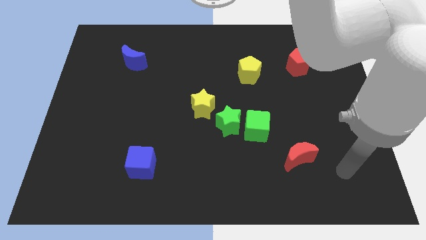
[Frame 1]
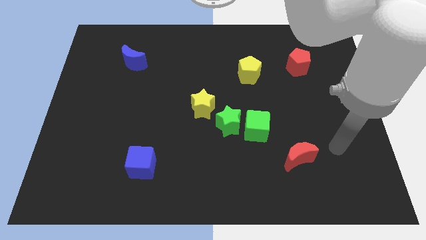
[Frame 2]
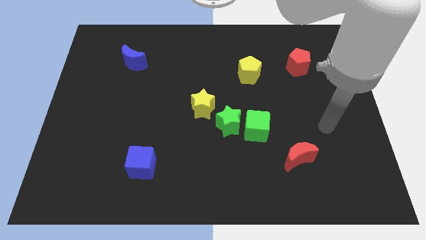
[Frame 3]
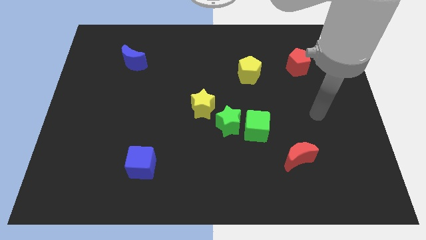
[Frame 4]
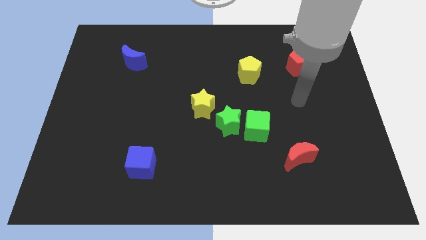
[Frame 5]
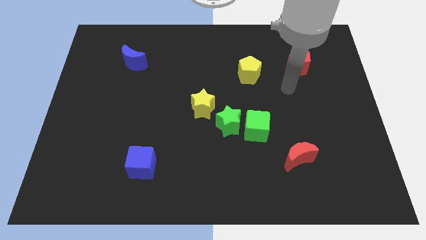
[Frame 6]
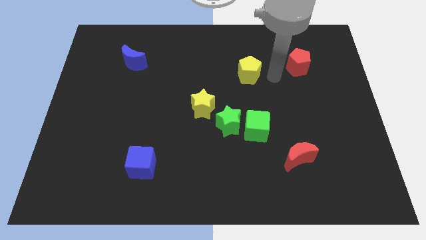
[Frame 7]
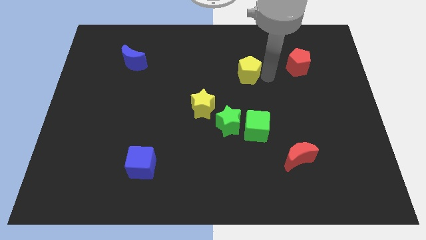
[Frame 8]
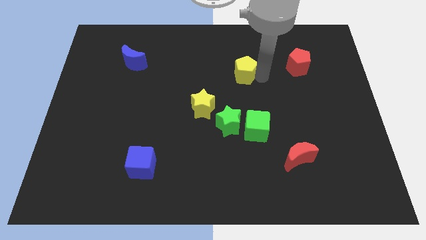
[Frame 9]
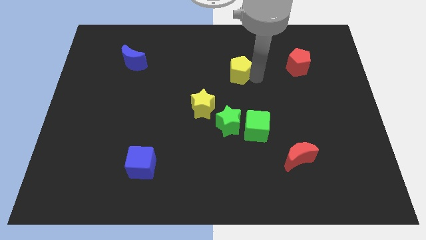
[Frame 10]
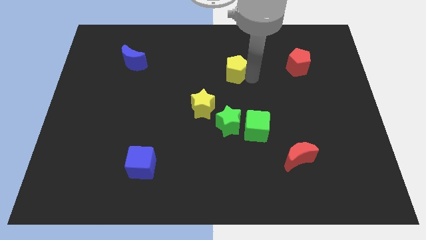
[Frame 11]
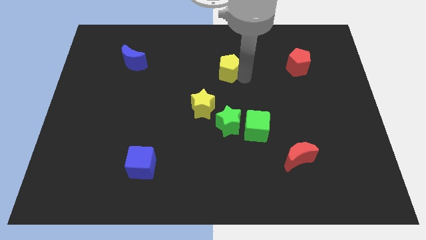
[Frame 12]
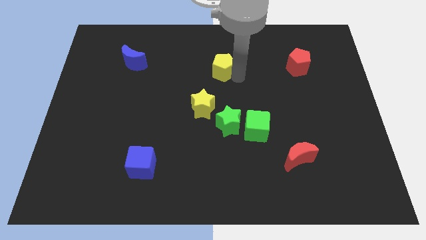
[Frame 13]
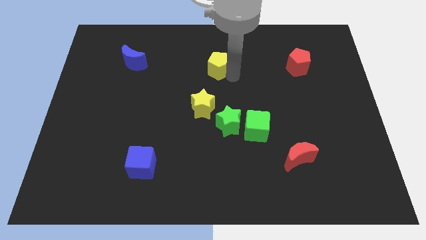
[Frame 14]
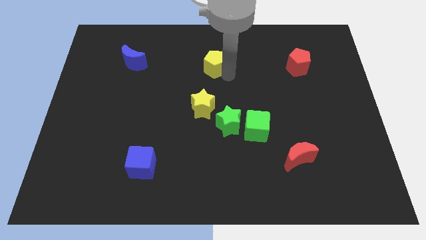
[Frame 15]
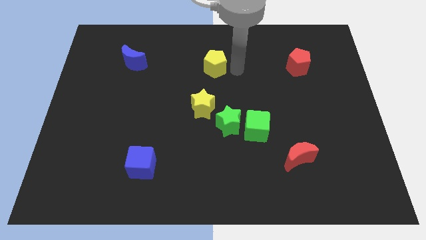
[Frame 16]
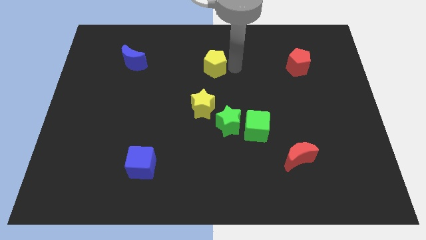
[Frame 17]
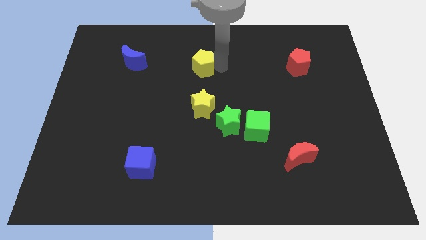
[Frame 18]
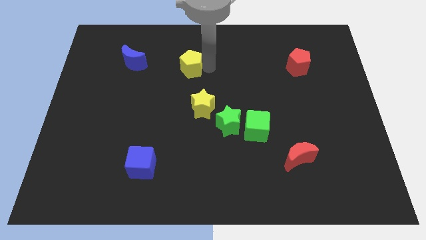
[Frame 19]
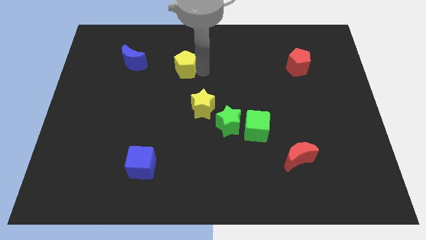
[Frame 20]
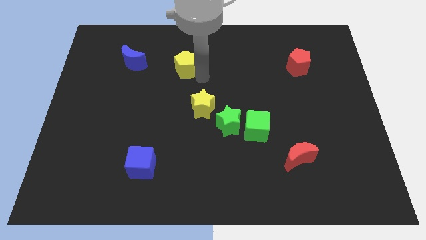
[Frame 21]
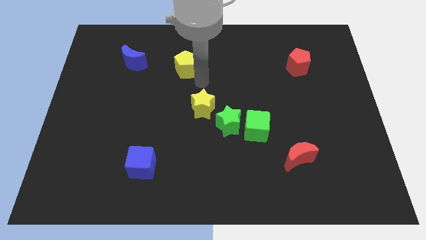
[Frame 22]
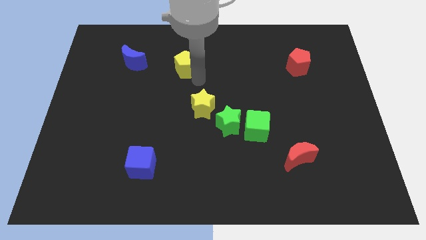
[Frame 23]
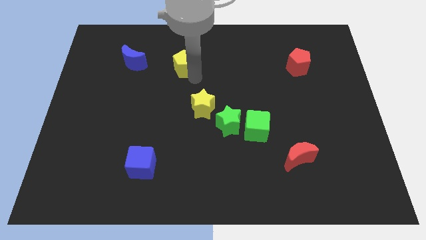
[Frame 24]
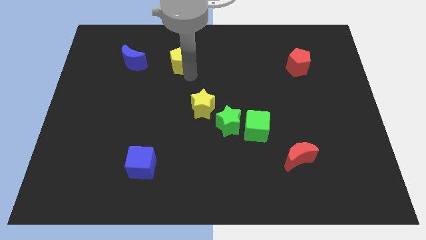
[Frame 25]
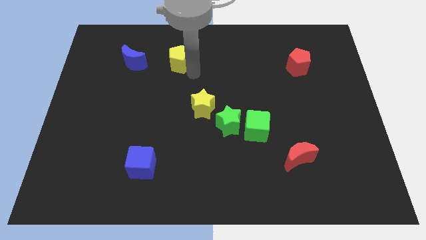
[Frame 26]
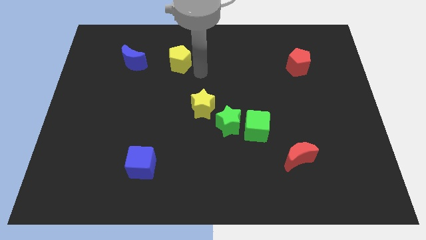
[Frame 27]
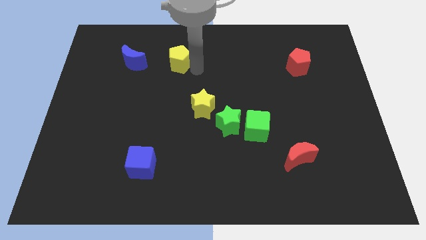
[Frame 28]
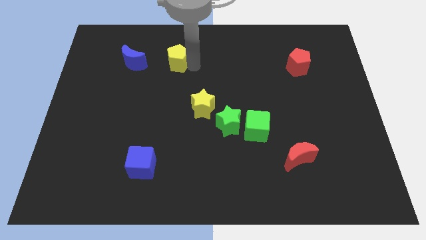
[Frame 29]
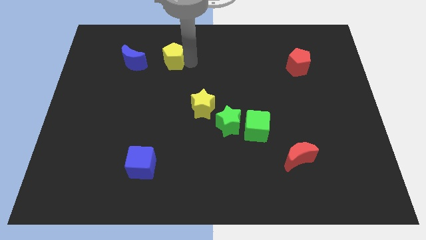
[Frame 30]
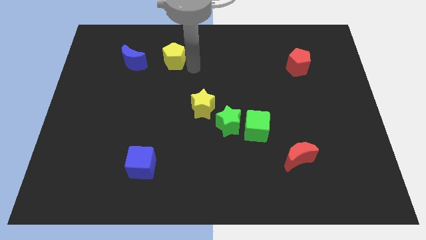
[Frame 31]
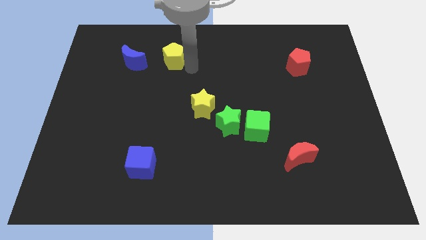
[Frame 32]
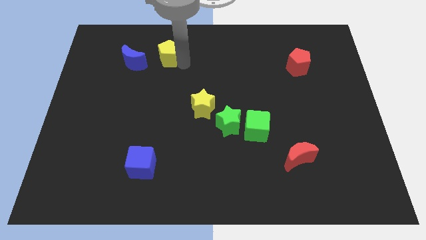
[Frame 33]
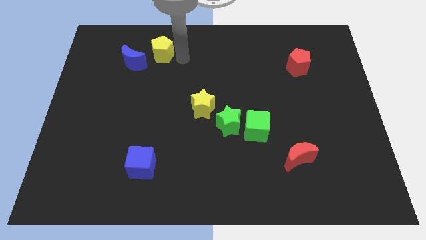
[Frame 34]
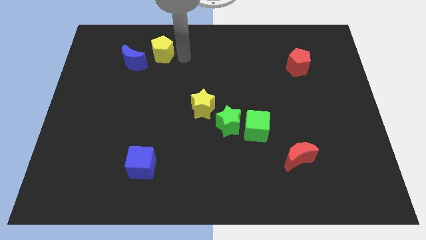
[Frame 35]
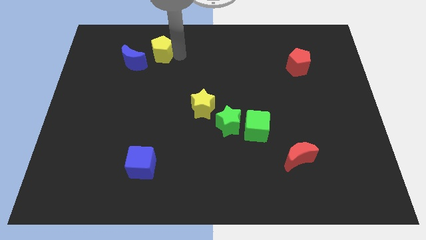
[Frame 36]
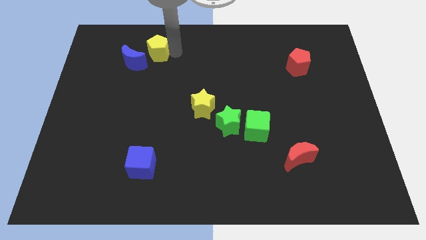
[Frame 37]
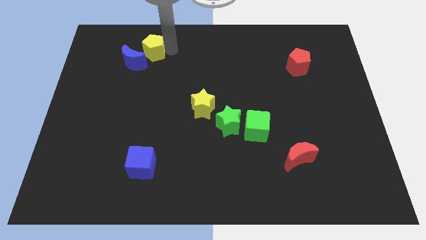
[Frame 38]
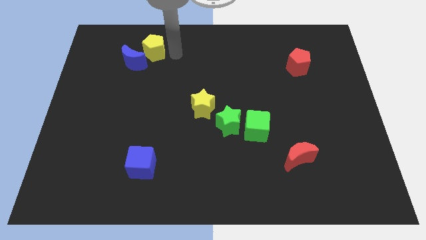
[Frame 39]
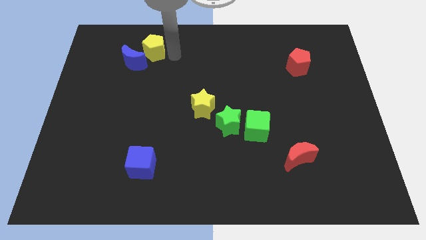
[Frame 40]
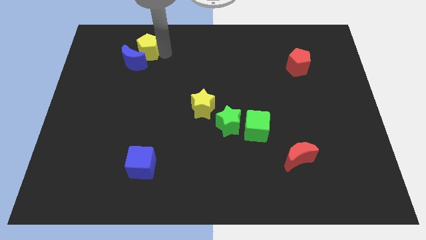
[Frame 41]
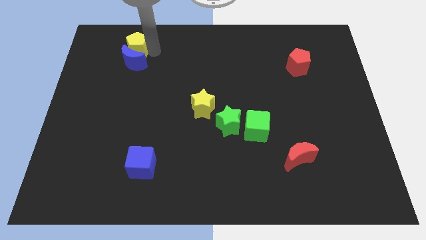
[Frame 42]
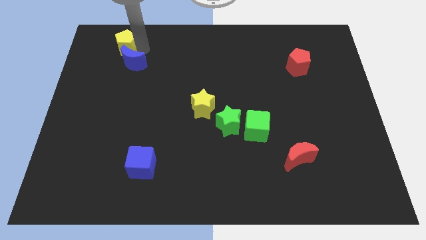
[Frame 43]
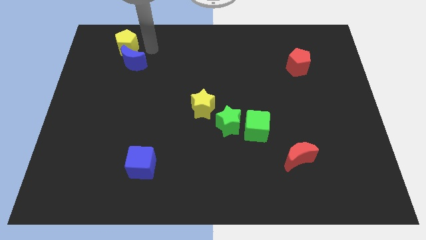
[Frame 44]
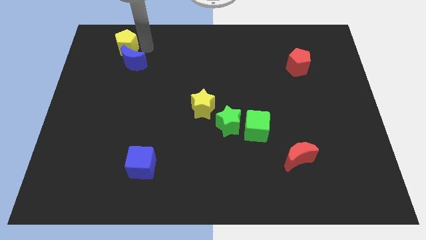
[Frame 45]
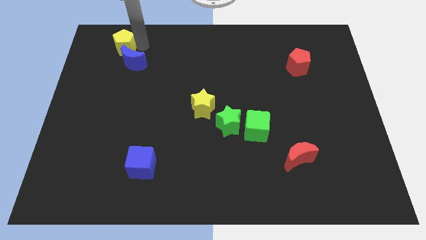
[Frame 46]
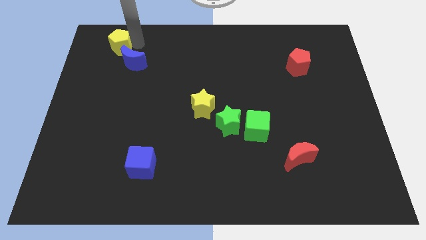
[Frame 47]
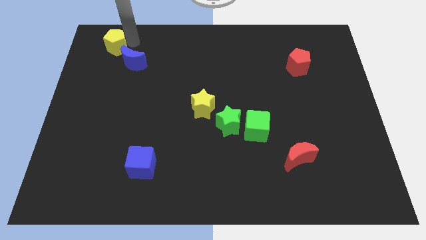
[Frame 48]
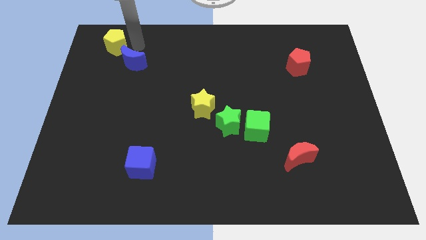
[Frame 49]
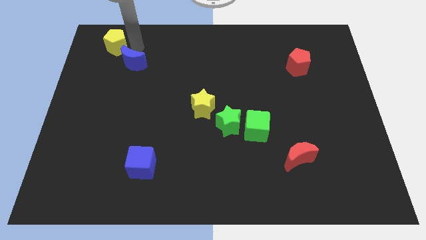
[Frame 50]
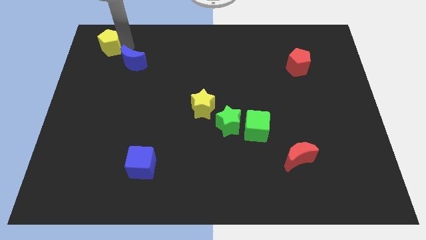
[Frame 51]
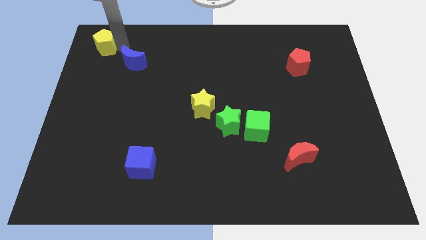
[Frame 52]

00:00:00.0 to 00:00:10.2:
slide the yellow pentagon to the top left

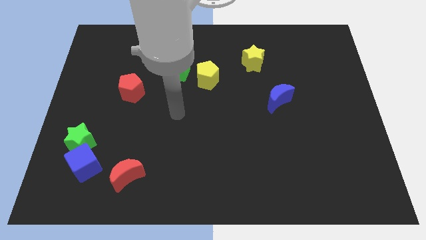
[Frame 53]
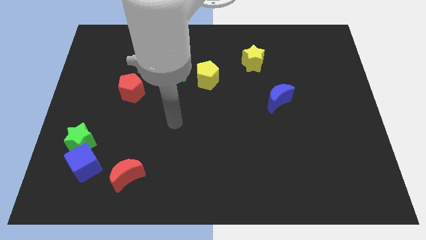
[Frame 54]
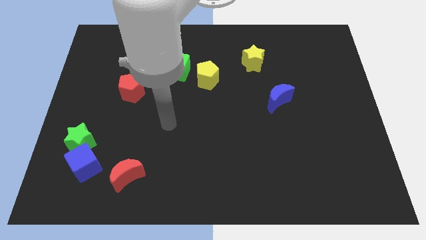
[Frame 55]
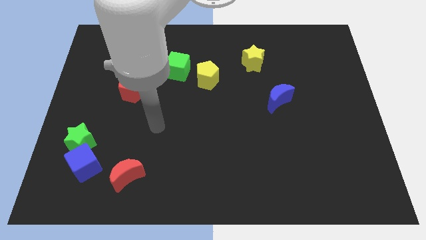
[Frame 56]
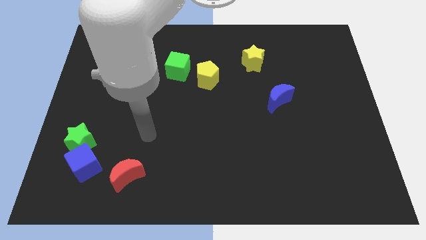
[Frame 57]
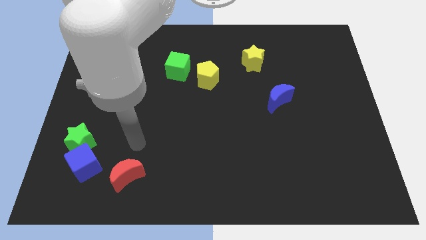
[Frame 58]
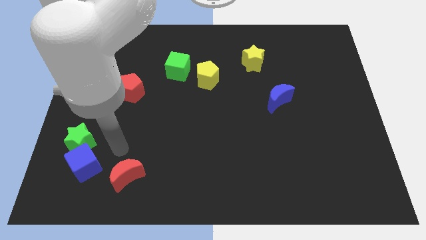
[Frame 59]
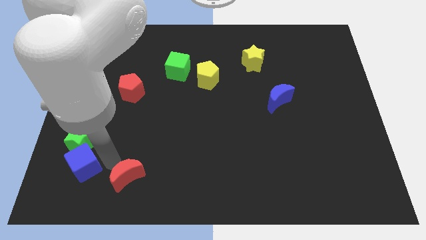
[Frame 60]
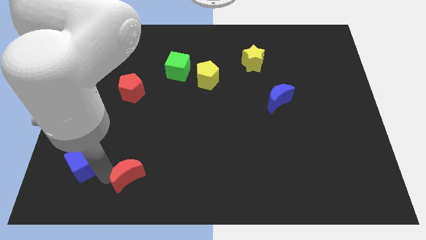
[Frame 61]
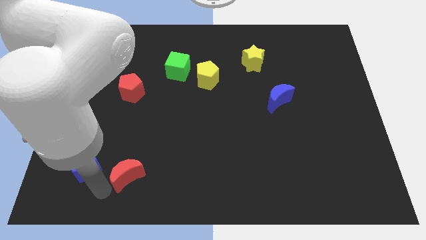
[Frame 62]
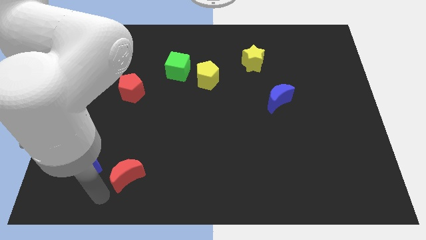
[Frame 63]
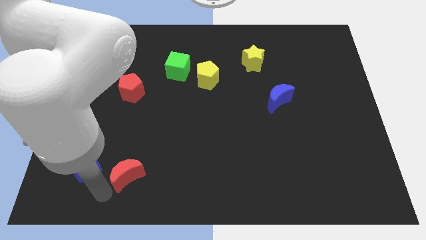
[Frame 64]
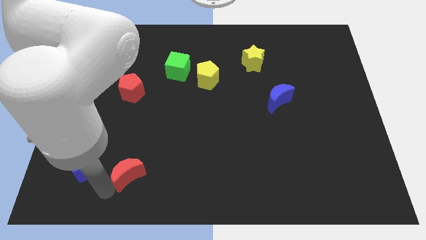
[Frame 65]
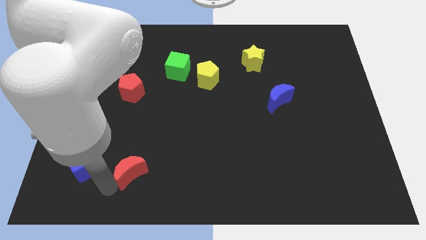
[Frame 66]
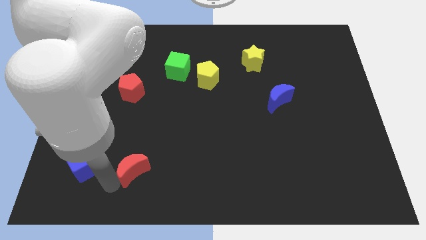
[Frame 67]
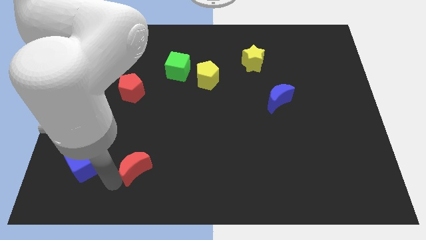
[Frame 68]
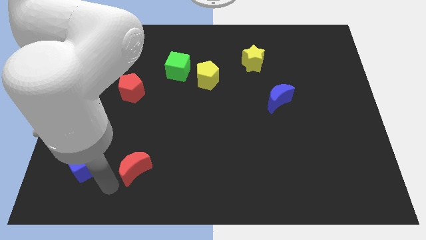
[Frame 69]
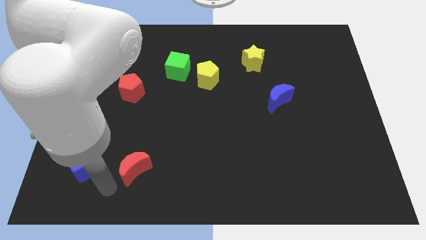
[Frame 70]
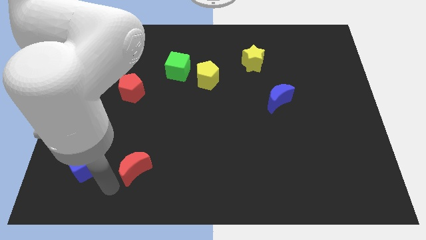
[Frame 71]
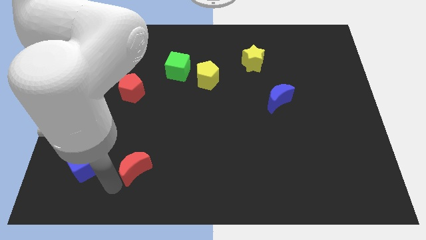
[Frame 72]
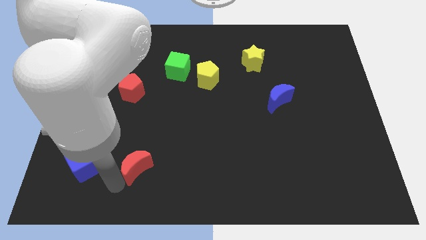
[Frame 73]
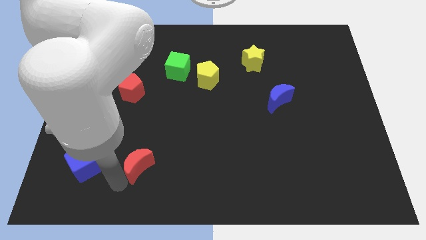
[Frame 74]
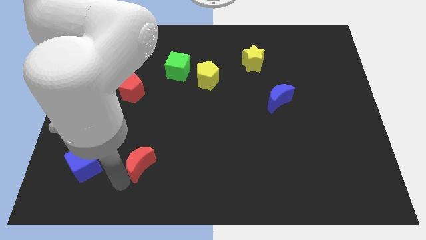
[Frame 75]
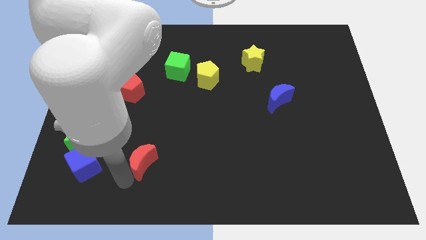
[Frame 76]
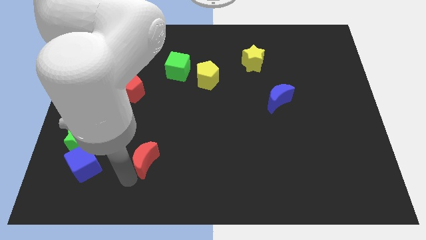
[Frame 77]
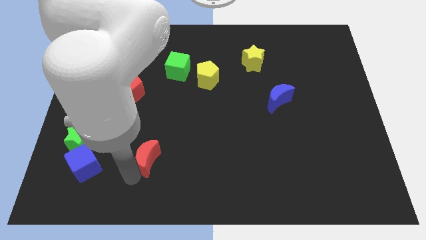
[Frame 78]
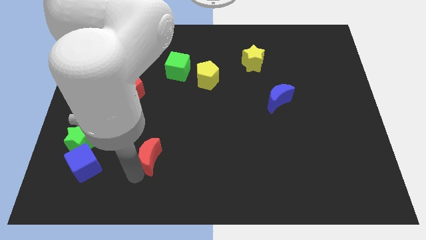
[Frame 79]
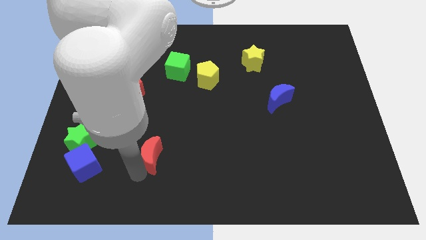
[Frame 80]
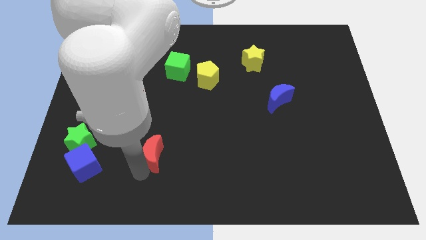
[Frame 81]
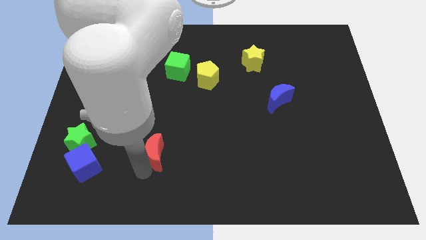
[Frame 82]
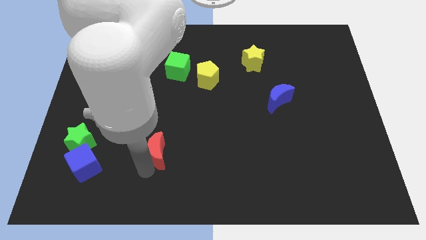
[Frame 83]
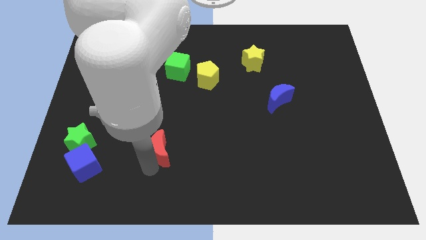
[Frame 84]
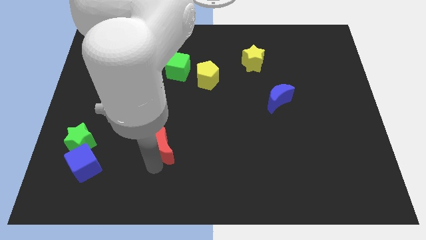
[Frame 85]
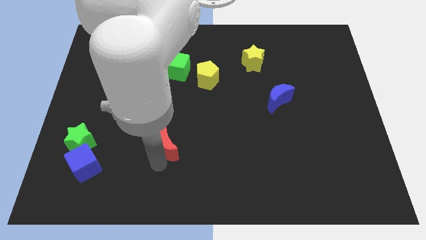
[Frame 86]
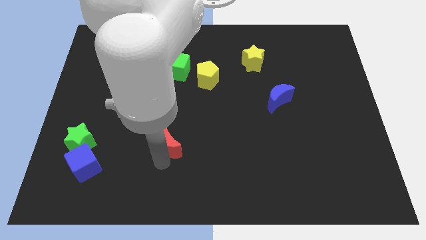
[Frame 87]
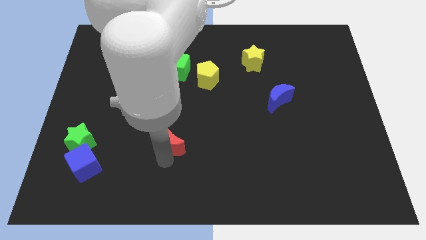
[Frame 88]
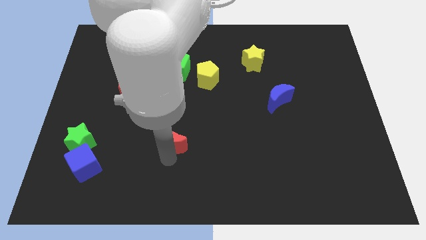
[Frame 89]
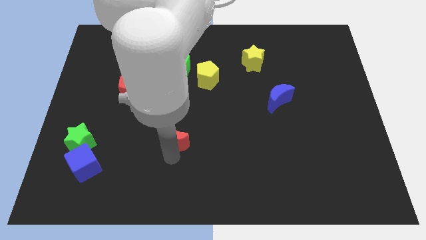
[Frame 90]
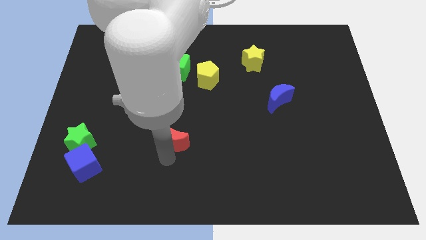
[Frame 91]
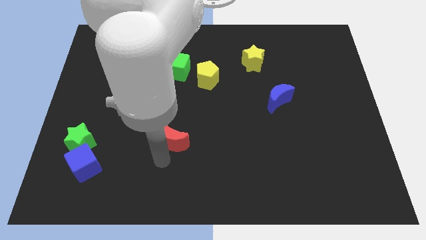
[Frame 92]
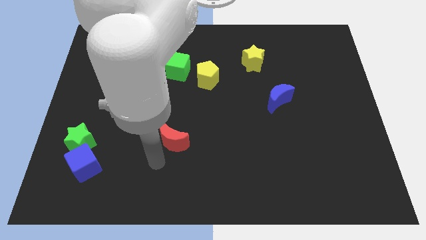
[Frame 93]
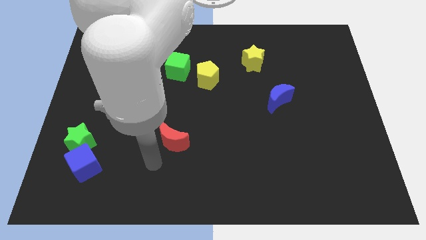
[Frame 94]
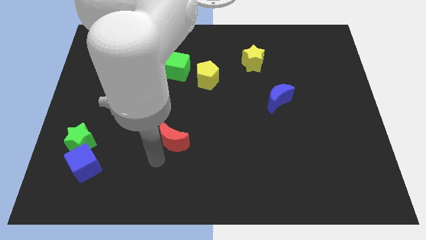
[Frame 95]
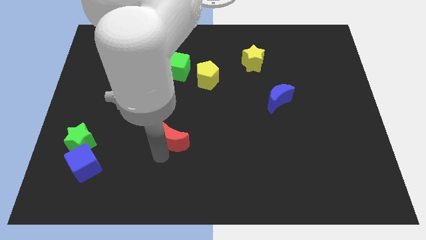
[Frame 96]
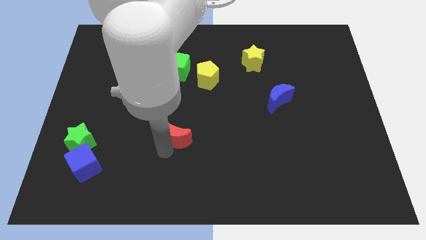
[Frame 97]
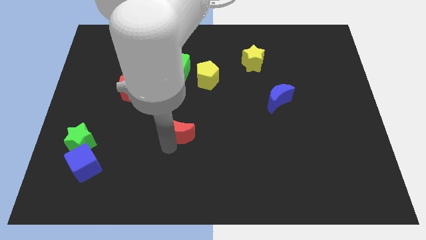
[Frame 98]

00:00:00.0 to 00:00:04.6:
push the red moon to the middle
